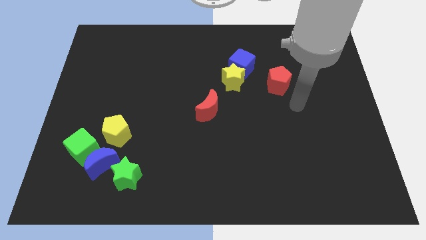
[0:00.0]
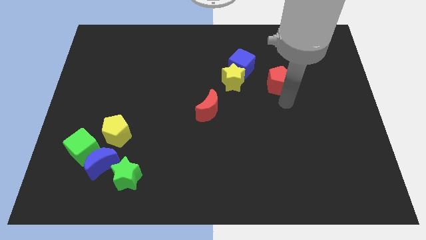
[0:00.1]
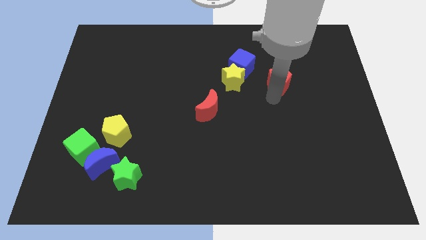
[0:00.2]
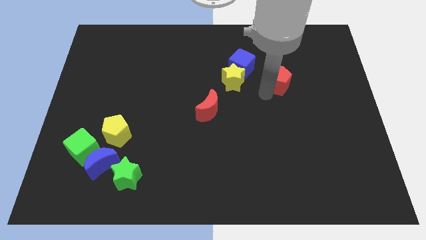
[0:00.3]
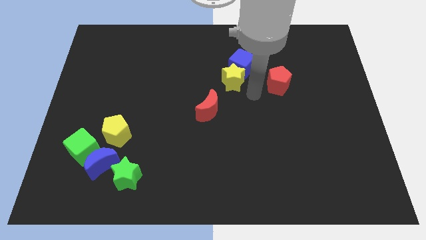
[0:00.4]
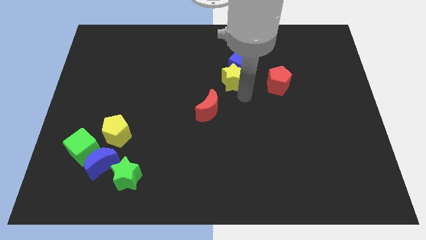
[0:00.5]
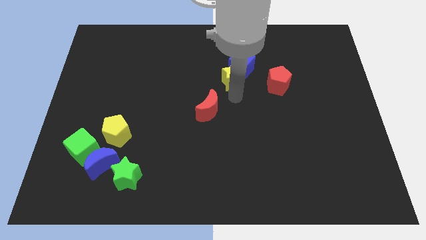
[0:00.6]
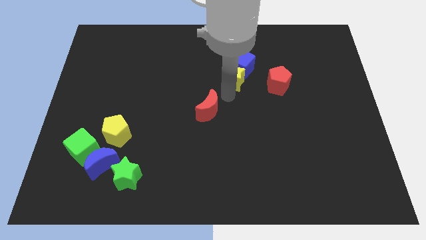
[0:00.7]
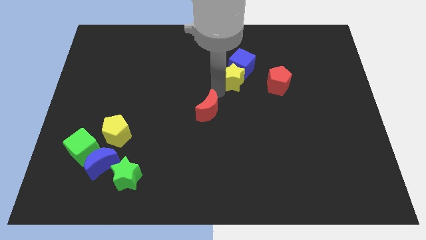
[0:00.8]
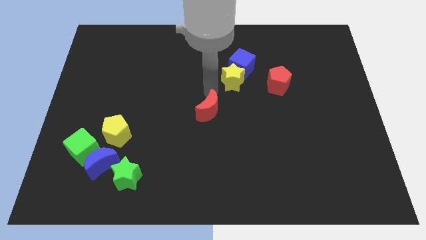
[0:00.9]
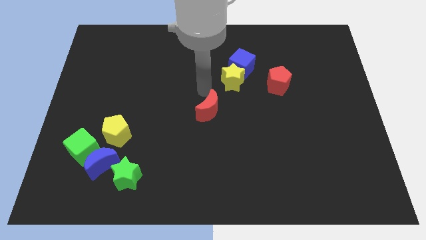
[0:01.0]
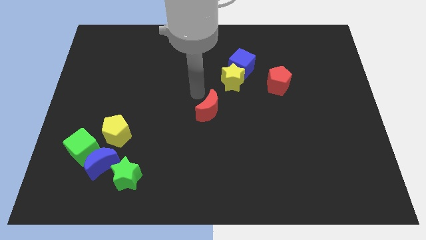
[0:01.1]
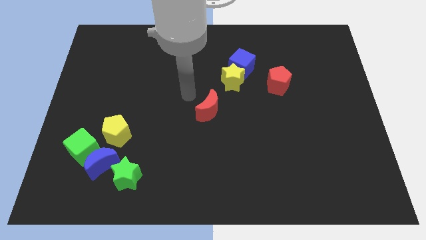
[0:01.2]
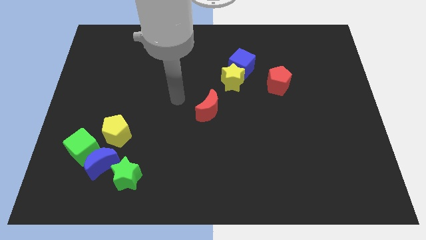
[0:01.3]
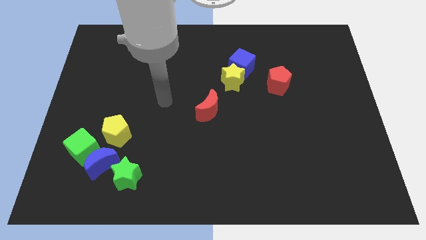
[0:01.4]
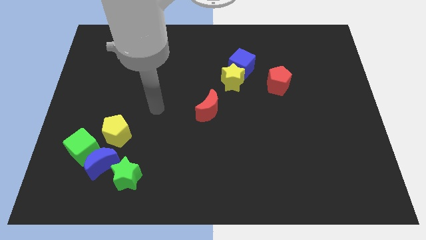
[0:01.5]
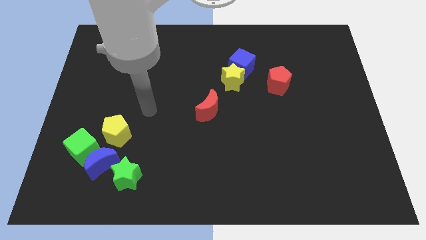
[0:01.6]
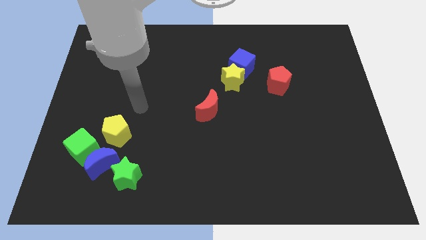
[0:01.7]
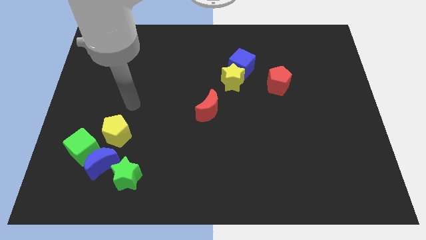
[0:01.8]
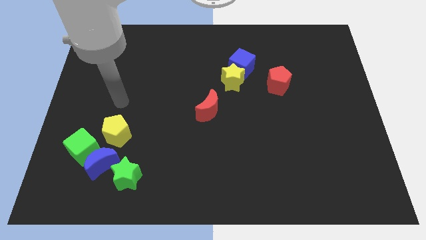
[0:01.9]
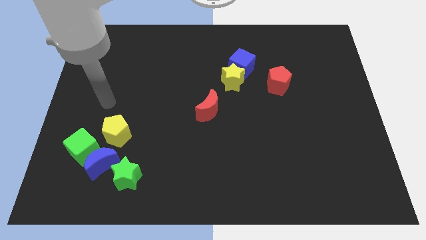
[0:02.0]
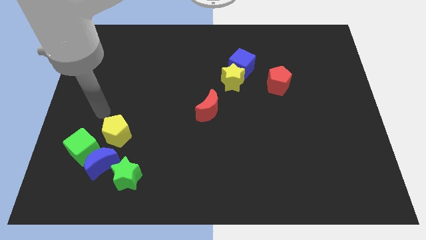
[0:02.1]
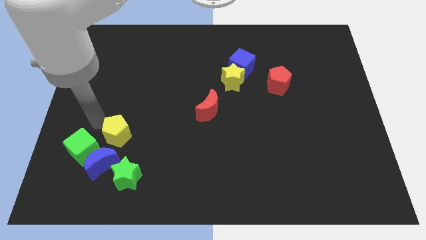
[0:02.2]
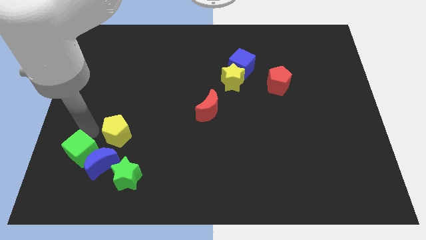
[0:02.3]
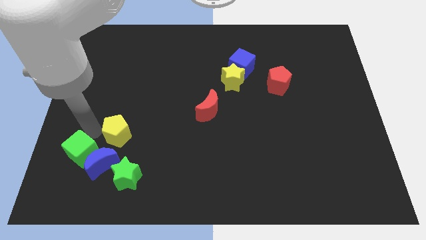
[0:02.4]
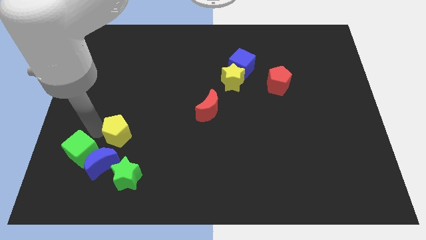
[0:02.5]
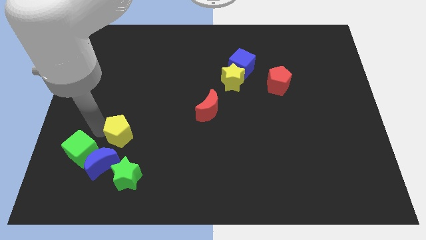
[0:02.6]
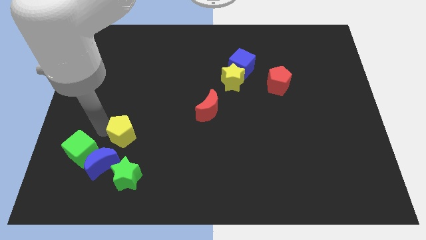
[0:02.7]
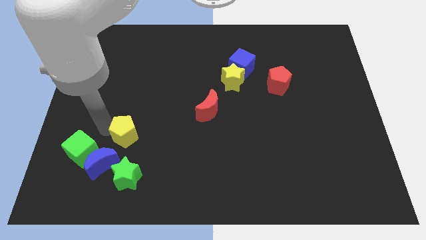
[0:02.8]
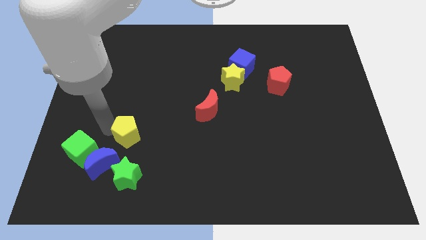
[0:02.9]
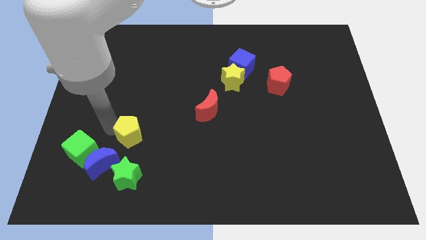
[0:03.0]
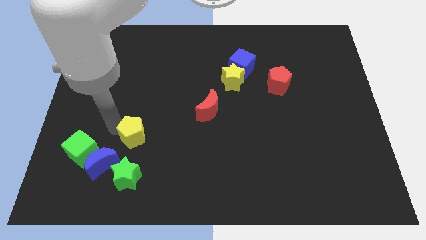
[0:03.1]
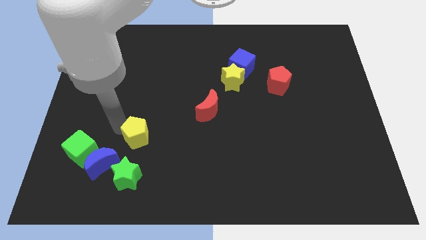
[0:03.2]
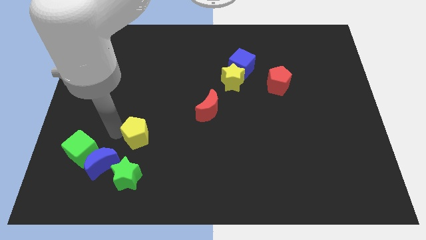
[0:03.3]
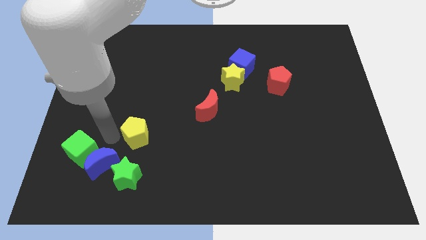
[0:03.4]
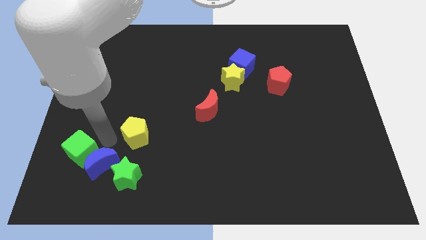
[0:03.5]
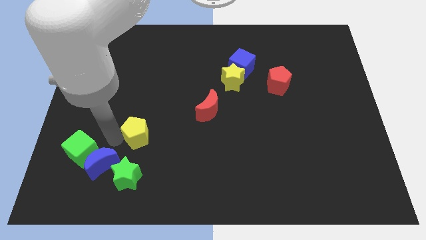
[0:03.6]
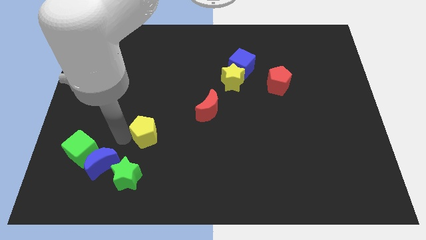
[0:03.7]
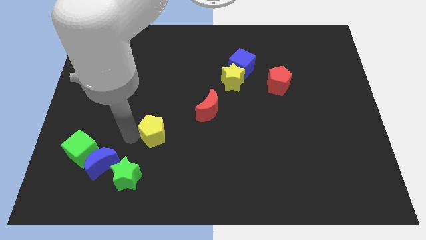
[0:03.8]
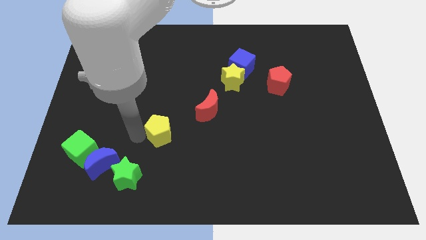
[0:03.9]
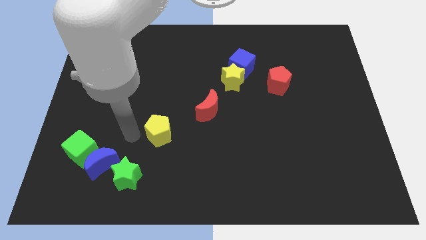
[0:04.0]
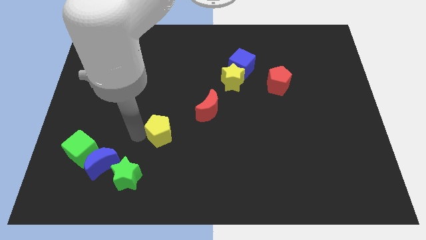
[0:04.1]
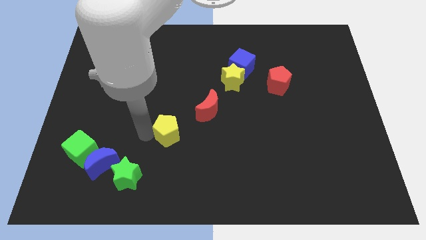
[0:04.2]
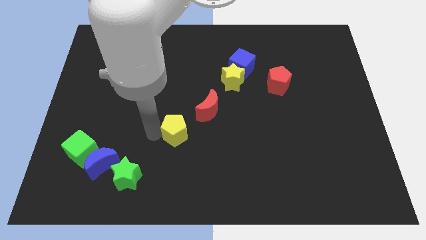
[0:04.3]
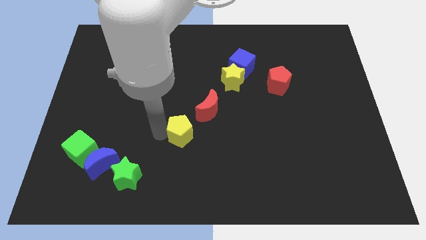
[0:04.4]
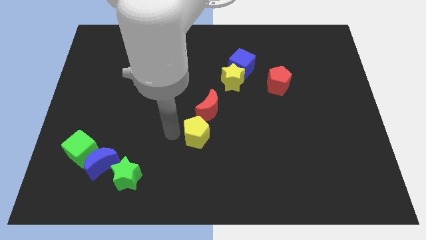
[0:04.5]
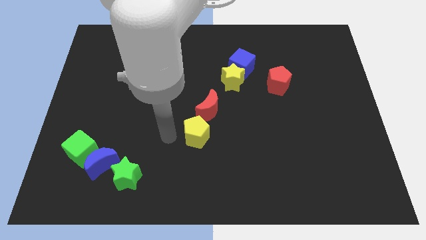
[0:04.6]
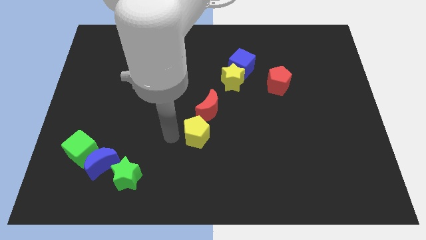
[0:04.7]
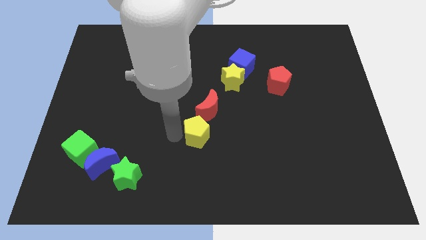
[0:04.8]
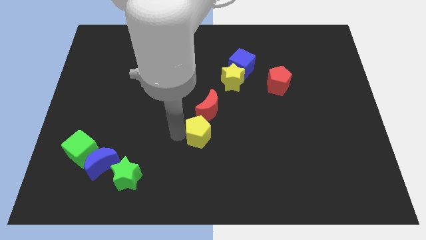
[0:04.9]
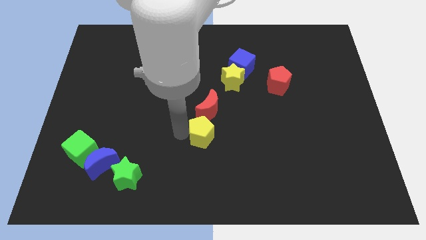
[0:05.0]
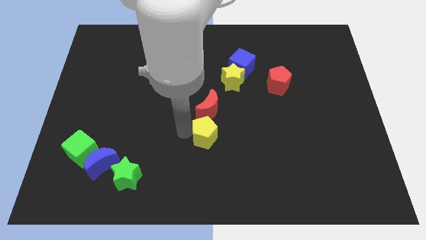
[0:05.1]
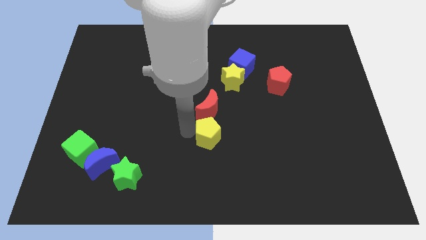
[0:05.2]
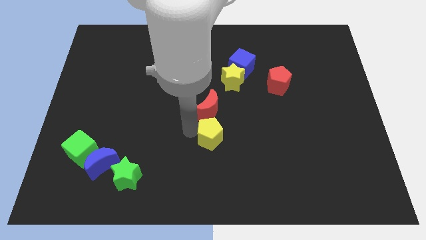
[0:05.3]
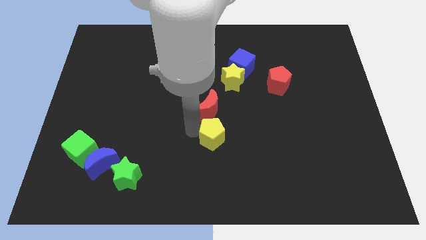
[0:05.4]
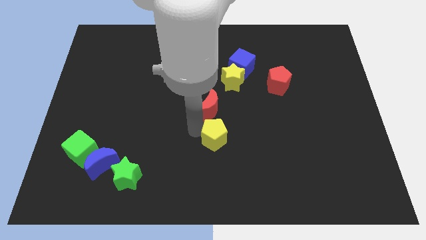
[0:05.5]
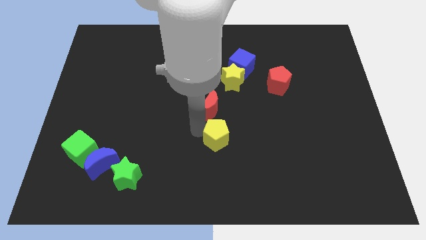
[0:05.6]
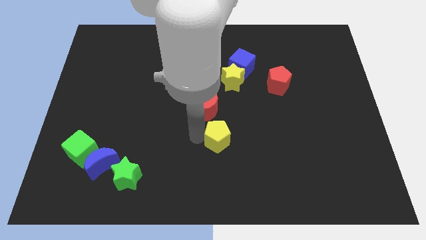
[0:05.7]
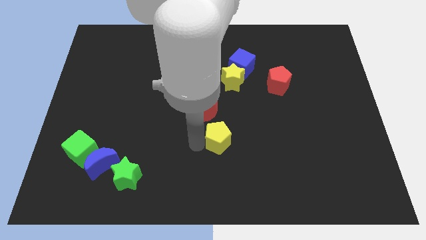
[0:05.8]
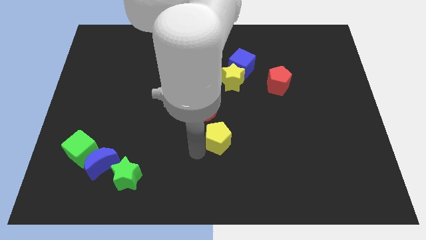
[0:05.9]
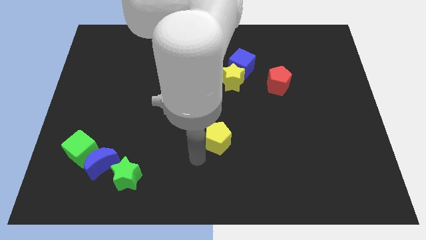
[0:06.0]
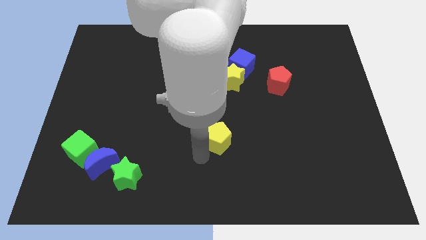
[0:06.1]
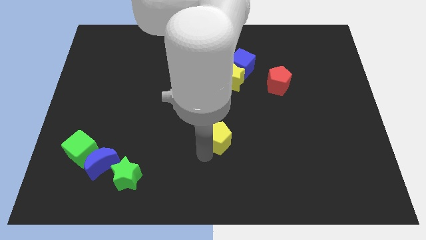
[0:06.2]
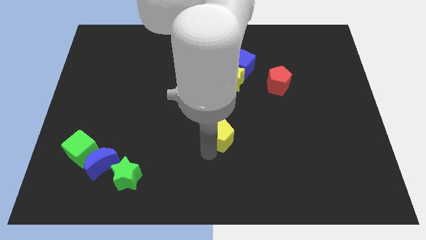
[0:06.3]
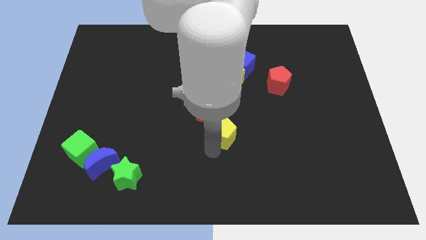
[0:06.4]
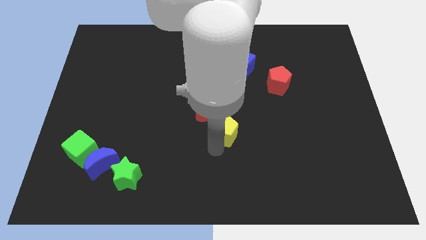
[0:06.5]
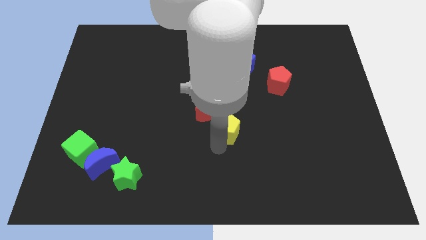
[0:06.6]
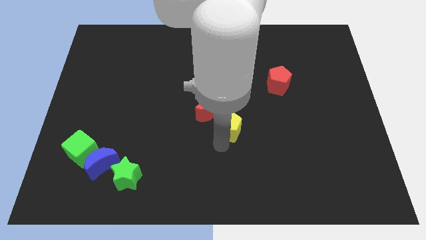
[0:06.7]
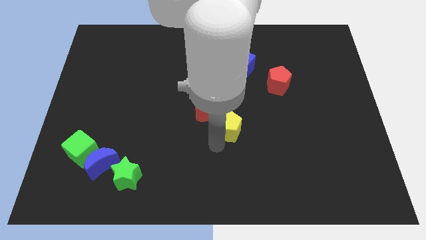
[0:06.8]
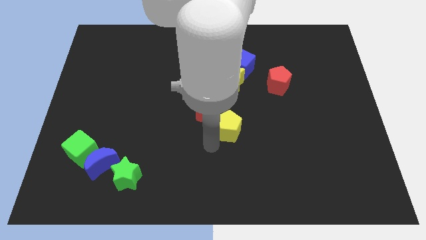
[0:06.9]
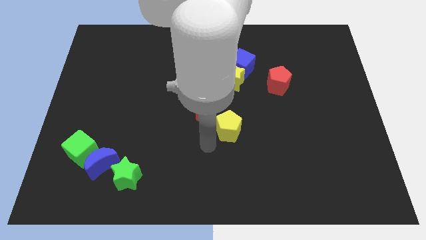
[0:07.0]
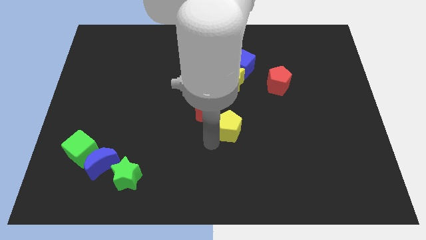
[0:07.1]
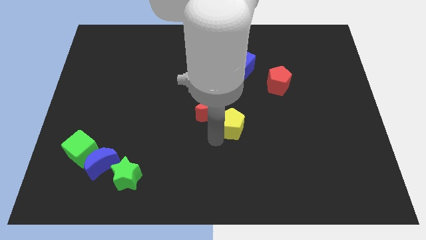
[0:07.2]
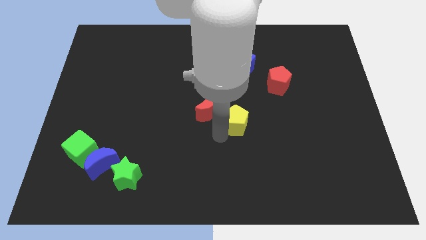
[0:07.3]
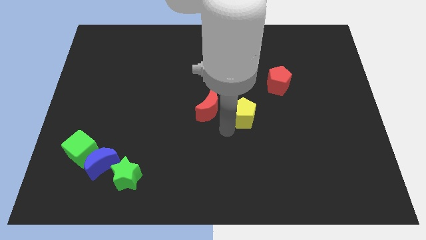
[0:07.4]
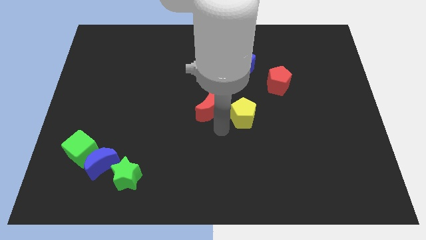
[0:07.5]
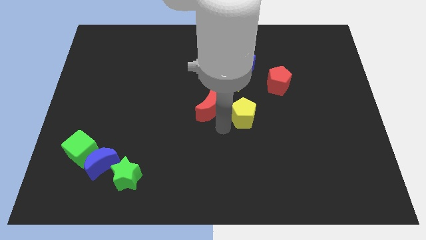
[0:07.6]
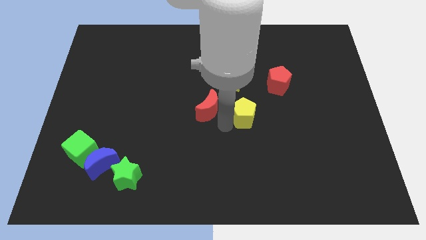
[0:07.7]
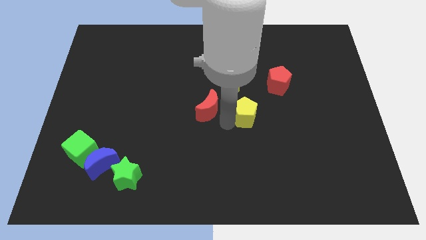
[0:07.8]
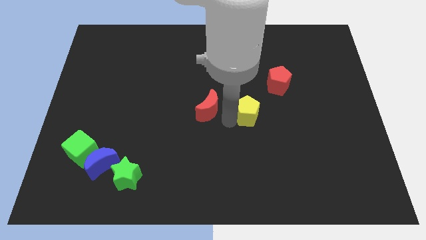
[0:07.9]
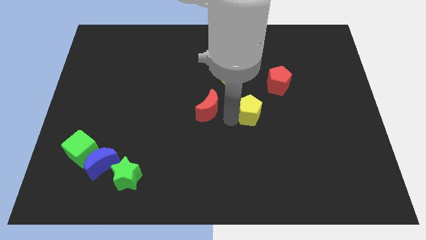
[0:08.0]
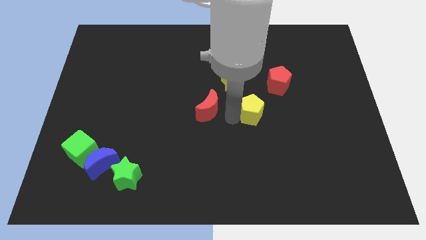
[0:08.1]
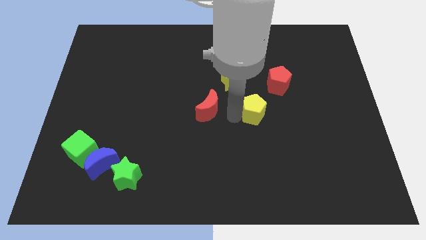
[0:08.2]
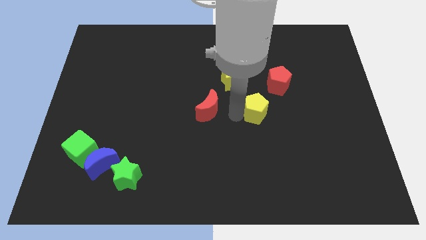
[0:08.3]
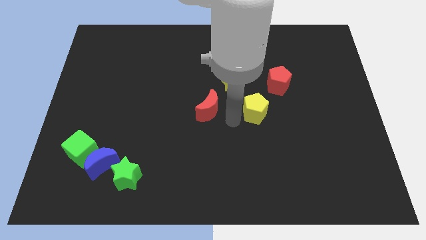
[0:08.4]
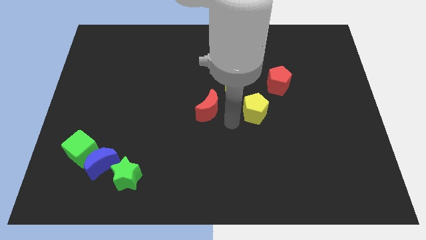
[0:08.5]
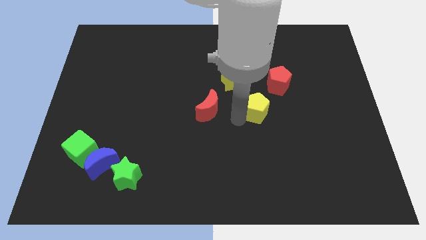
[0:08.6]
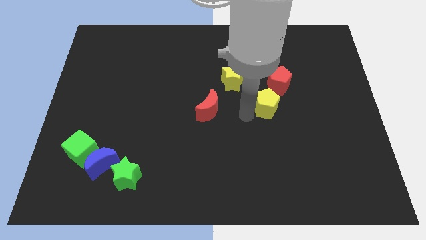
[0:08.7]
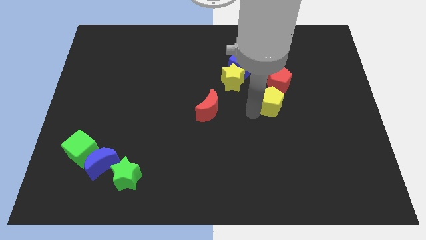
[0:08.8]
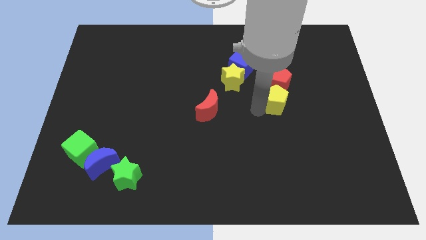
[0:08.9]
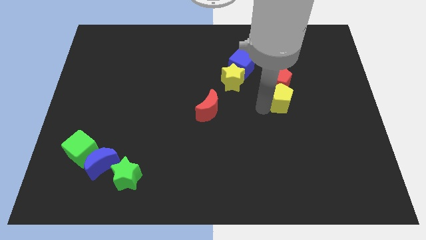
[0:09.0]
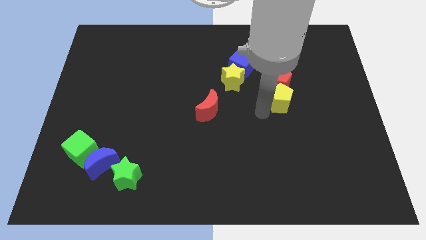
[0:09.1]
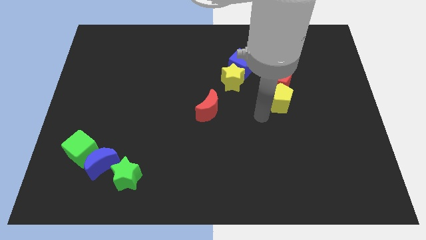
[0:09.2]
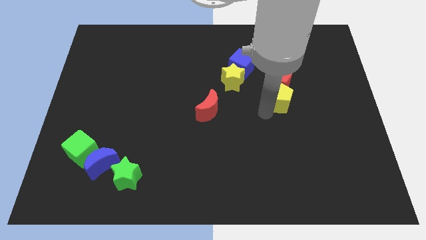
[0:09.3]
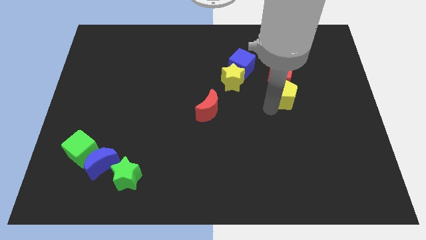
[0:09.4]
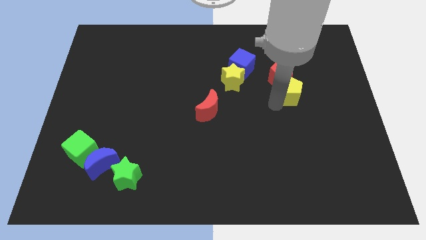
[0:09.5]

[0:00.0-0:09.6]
push the yellow pentagon right of the yellow star
